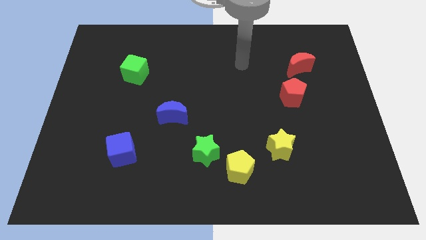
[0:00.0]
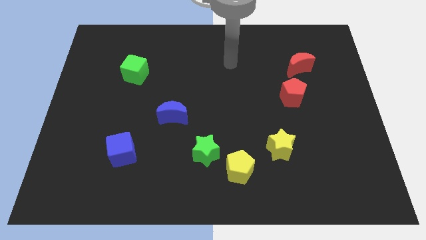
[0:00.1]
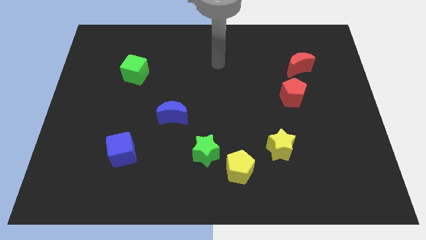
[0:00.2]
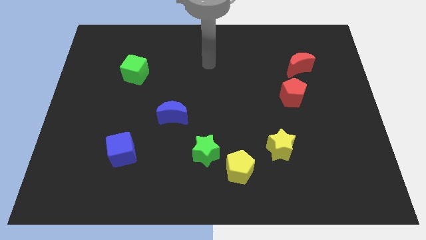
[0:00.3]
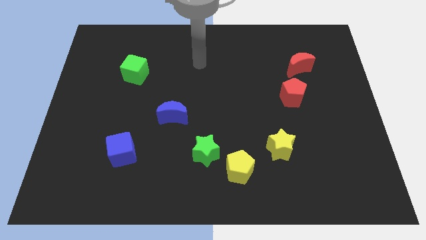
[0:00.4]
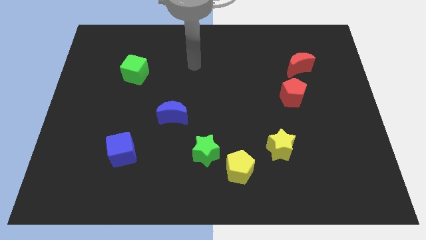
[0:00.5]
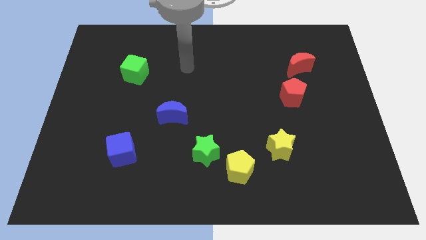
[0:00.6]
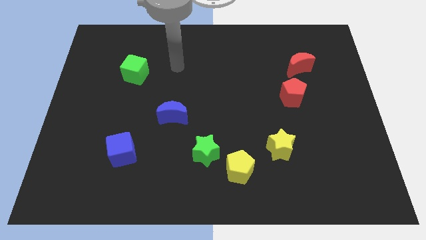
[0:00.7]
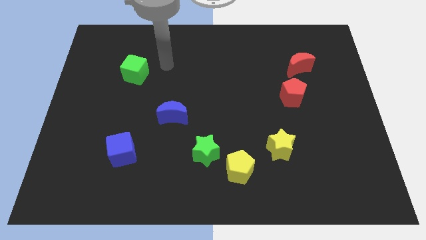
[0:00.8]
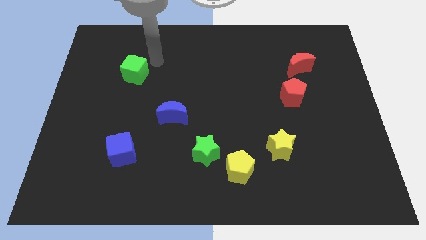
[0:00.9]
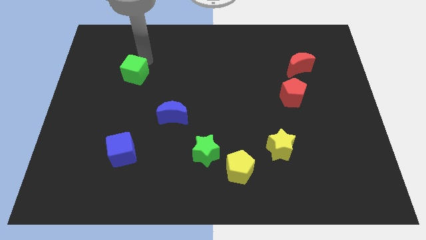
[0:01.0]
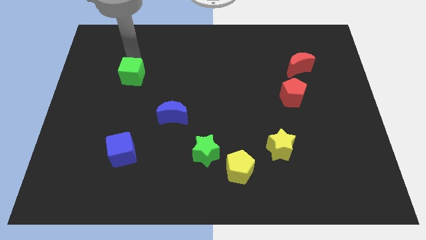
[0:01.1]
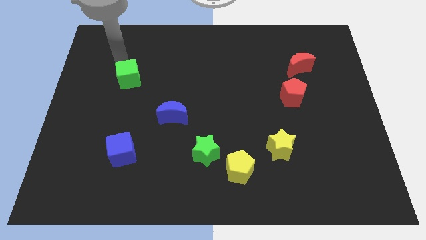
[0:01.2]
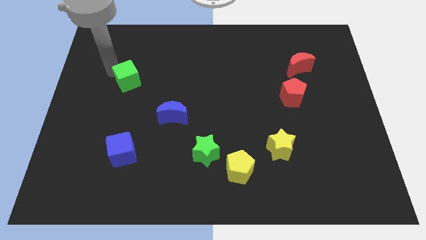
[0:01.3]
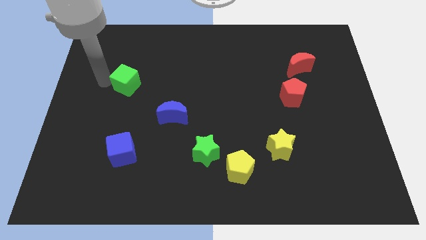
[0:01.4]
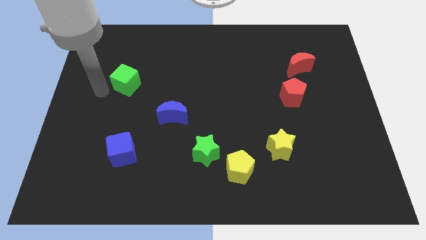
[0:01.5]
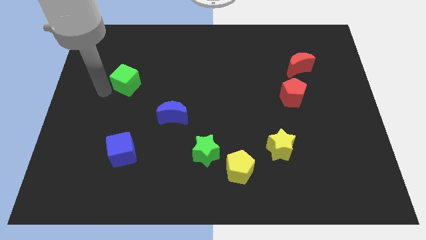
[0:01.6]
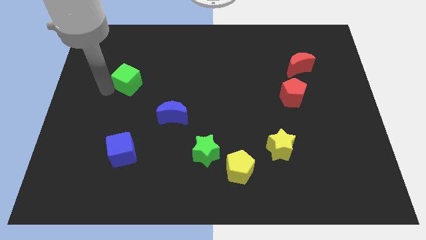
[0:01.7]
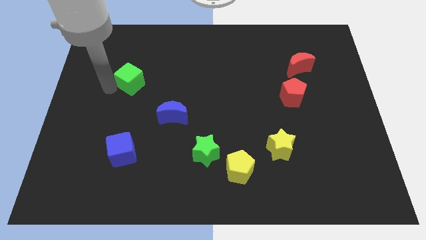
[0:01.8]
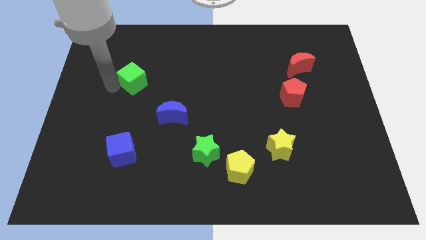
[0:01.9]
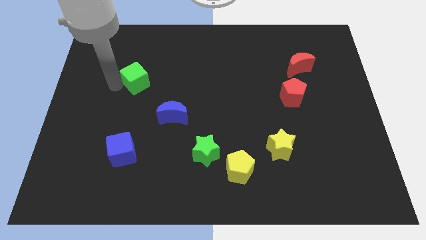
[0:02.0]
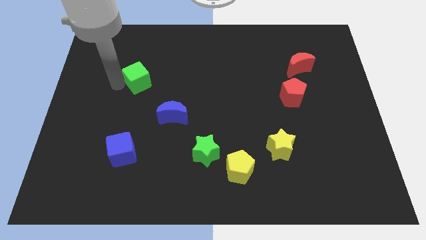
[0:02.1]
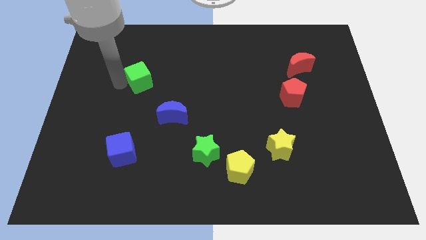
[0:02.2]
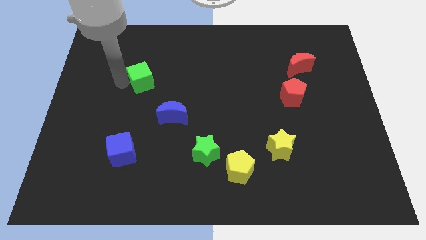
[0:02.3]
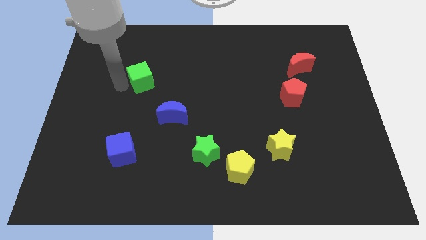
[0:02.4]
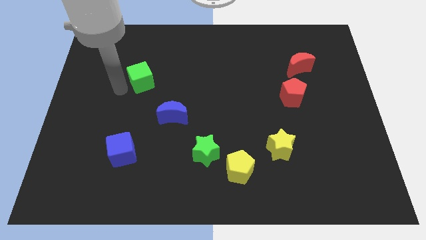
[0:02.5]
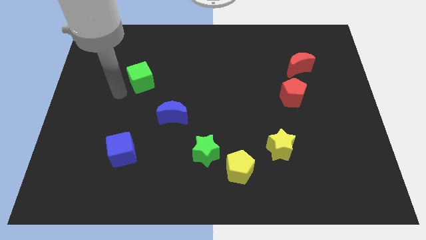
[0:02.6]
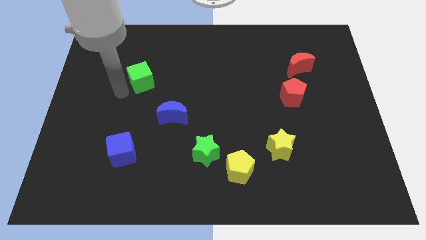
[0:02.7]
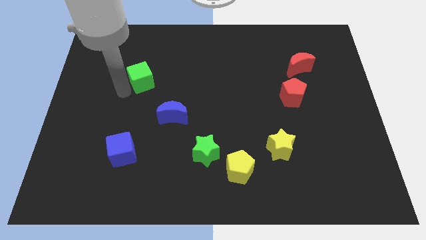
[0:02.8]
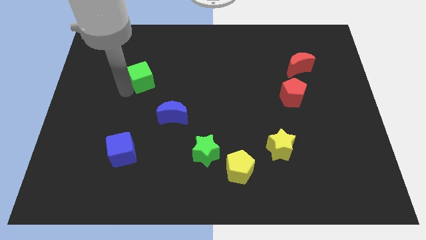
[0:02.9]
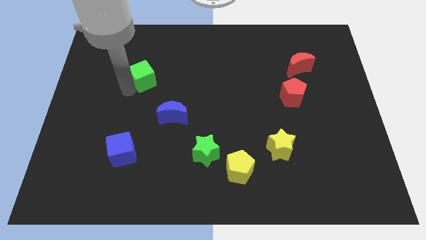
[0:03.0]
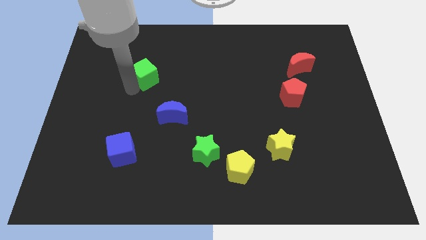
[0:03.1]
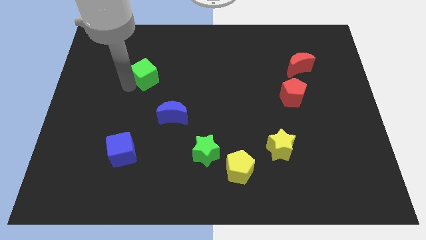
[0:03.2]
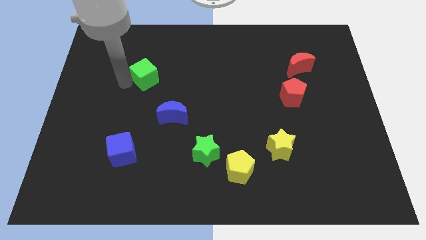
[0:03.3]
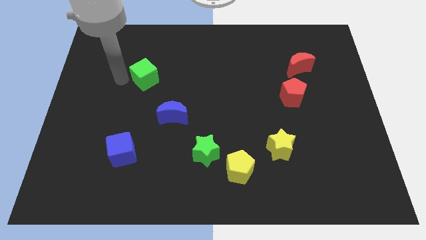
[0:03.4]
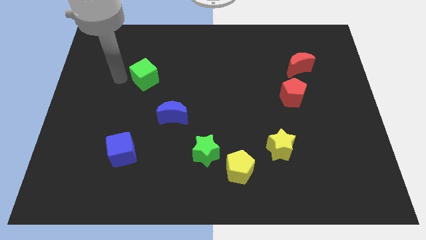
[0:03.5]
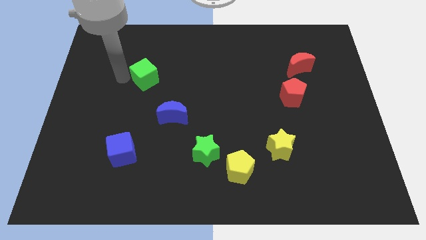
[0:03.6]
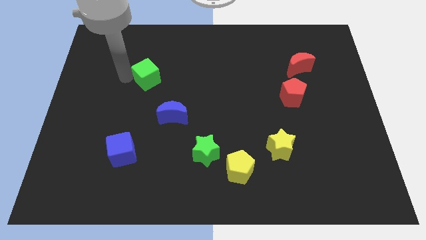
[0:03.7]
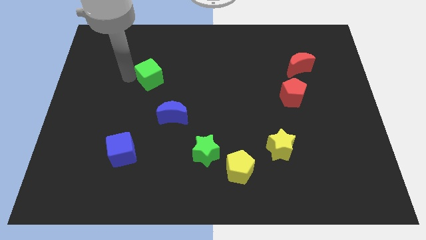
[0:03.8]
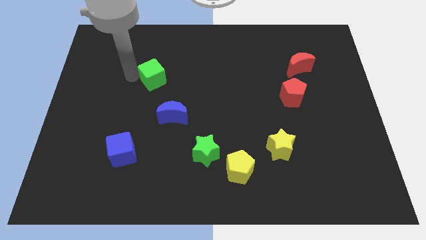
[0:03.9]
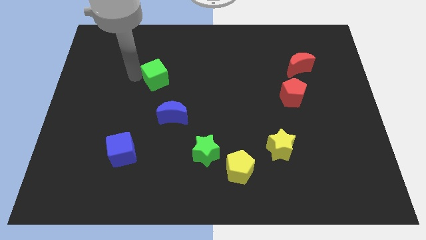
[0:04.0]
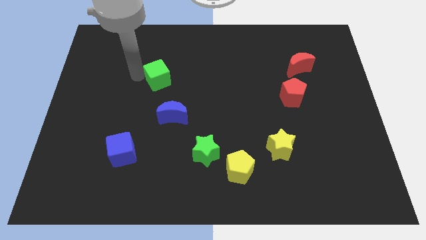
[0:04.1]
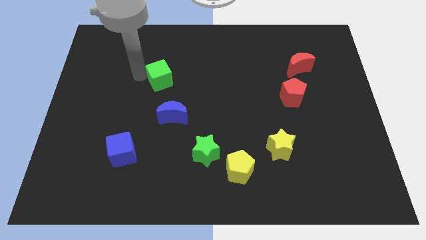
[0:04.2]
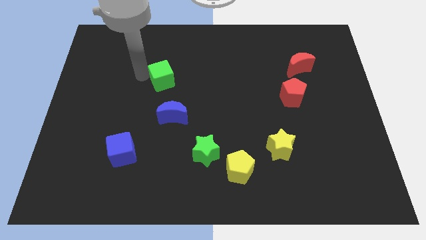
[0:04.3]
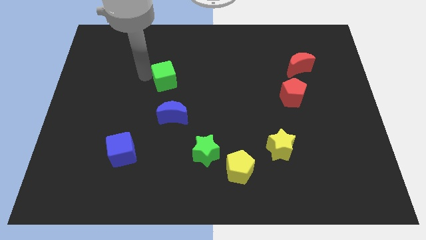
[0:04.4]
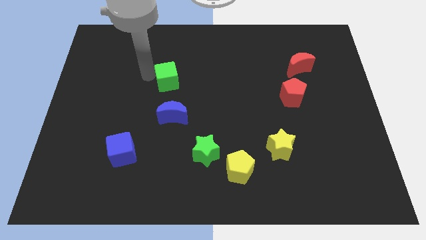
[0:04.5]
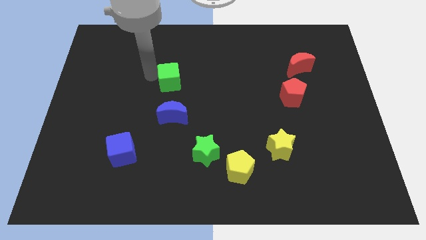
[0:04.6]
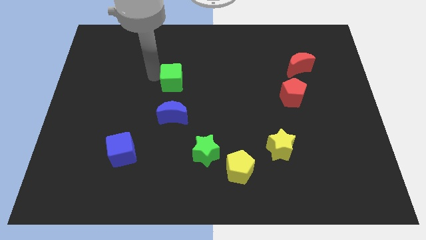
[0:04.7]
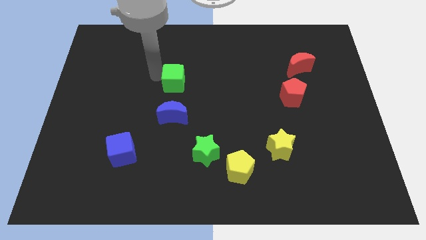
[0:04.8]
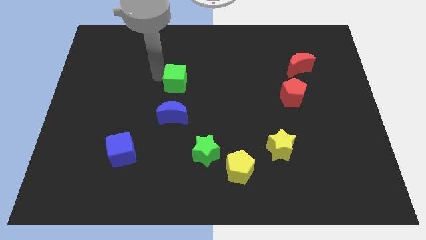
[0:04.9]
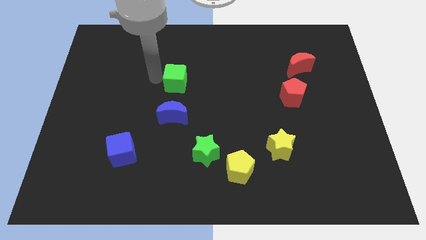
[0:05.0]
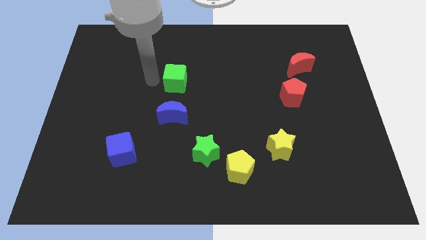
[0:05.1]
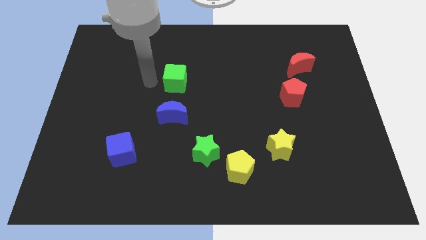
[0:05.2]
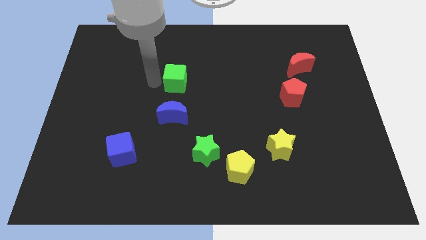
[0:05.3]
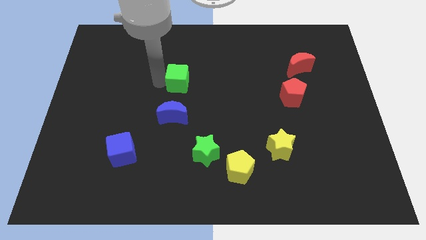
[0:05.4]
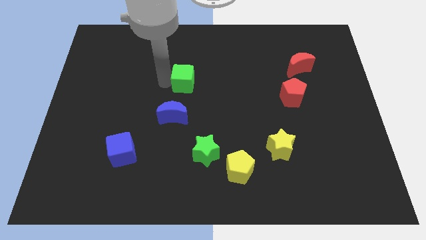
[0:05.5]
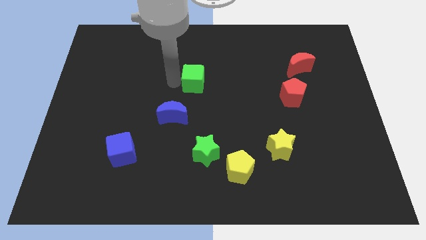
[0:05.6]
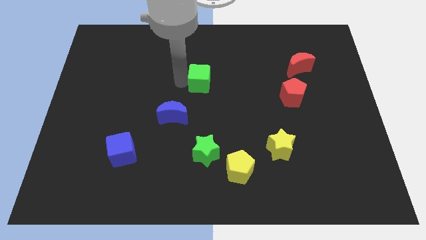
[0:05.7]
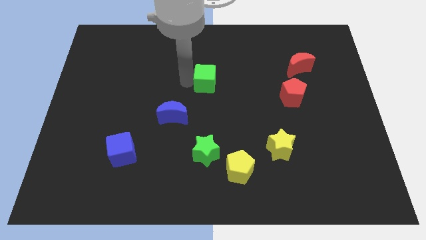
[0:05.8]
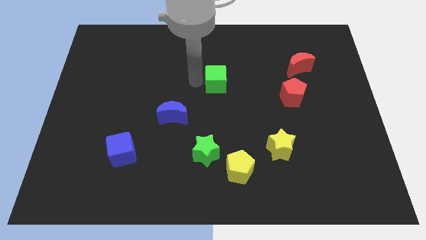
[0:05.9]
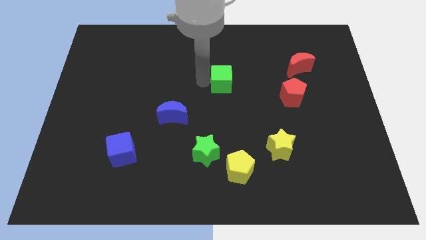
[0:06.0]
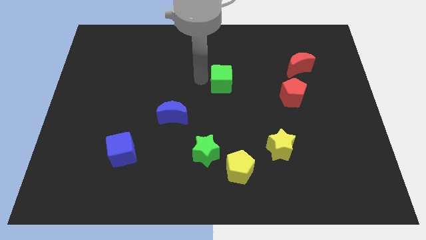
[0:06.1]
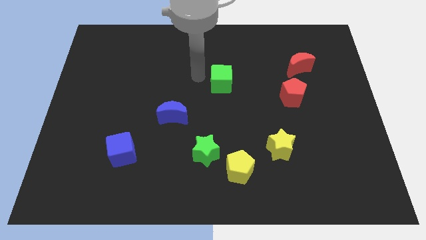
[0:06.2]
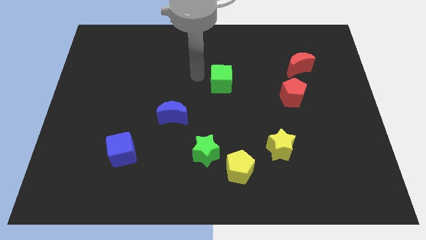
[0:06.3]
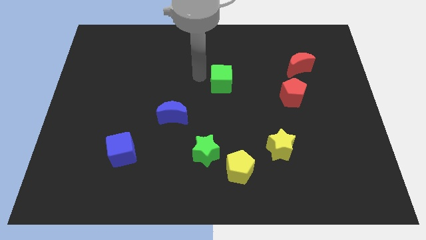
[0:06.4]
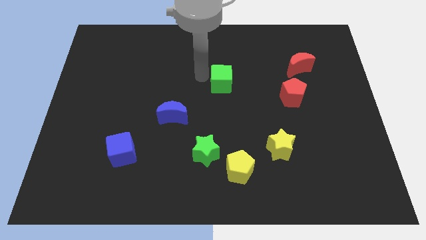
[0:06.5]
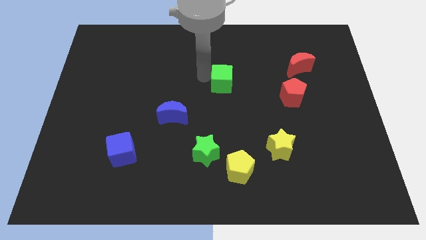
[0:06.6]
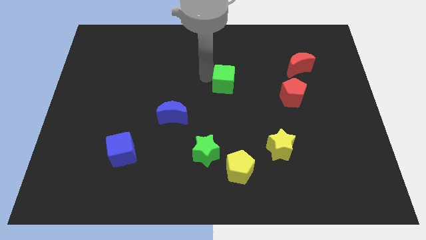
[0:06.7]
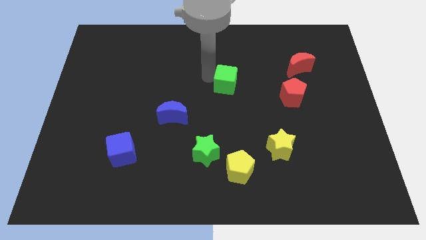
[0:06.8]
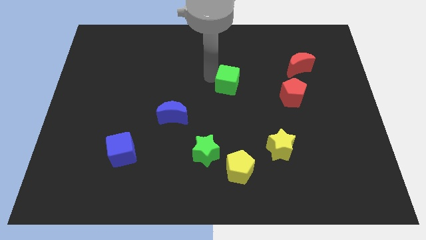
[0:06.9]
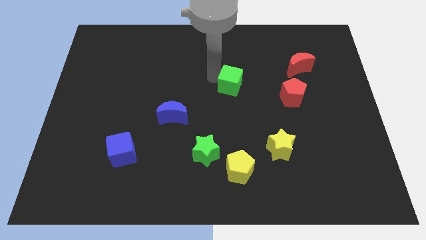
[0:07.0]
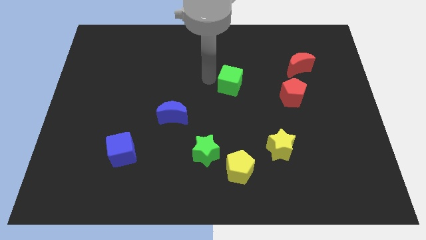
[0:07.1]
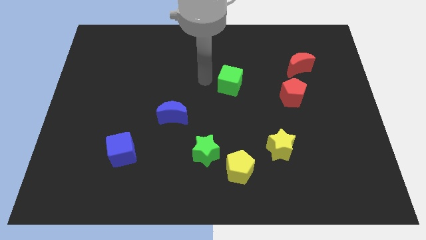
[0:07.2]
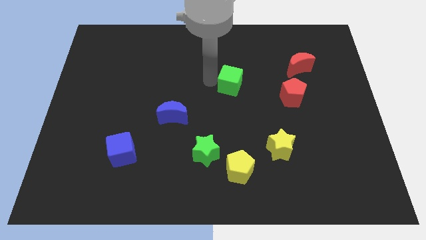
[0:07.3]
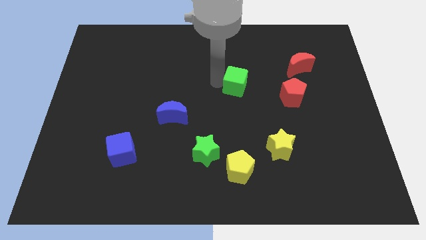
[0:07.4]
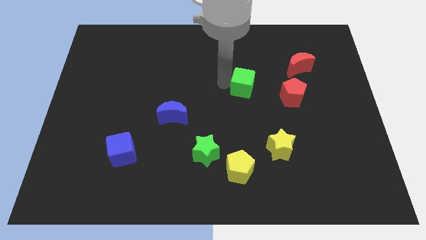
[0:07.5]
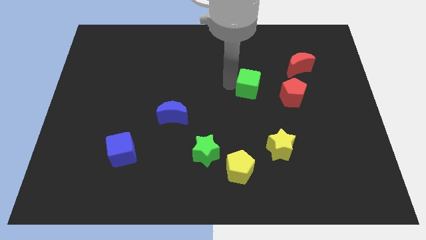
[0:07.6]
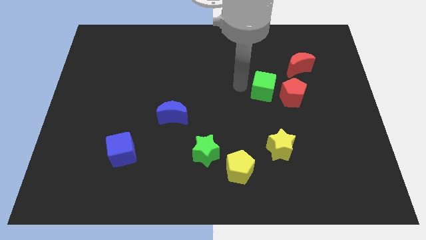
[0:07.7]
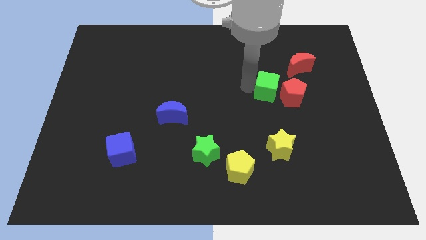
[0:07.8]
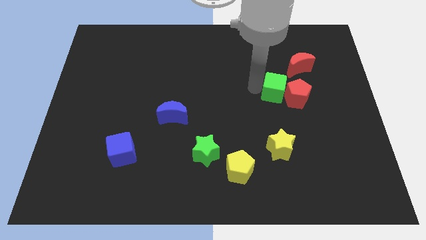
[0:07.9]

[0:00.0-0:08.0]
push the green cube close to the red pentagon
